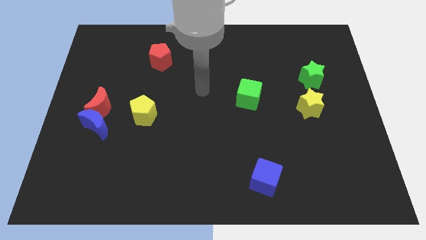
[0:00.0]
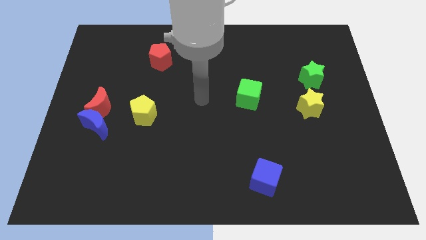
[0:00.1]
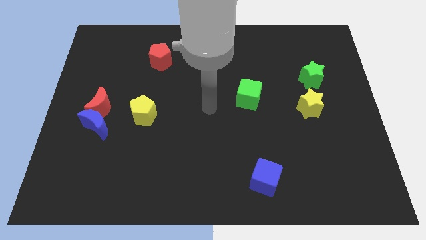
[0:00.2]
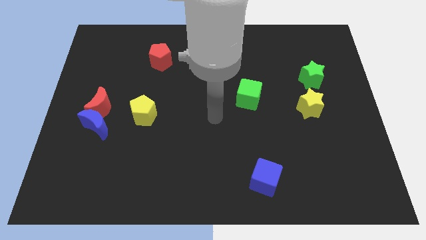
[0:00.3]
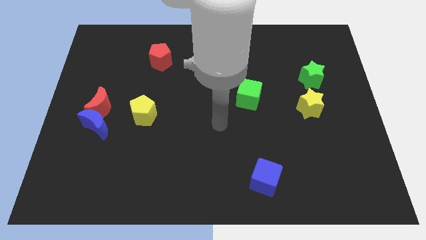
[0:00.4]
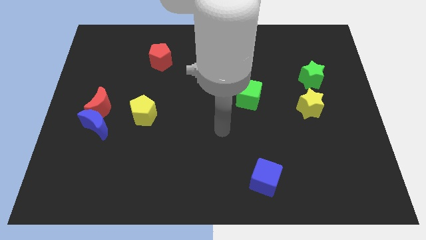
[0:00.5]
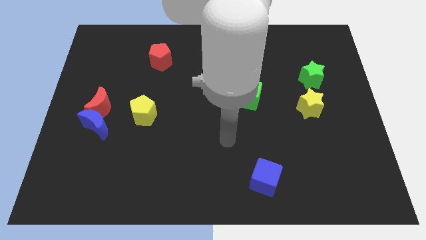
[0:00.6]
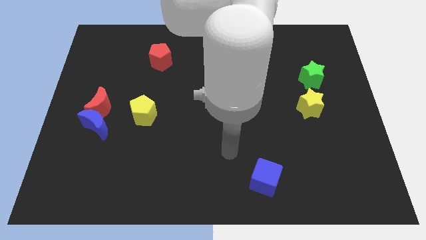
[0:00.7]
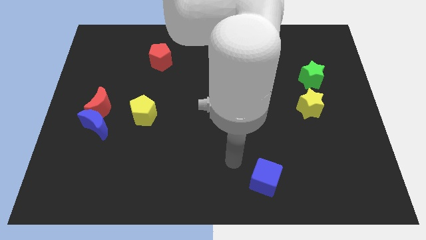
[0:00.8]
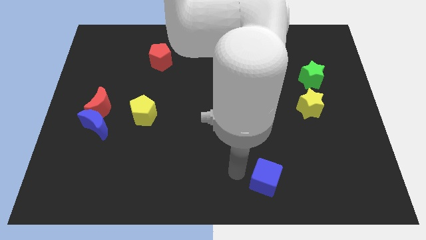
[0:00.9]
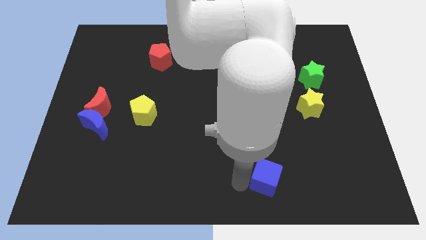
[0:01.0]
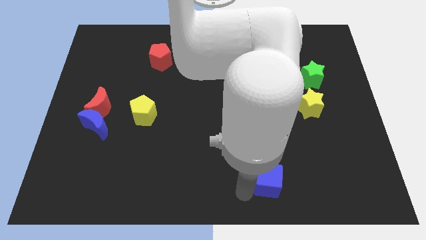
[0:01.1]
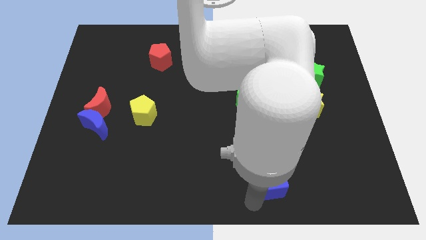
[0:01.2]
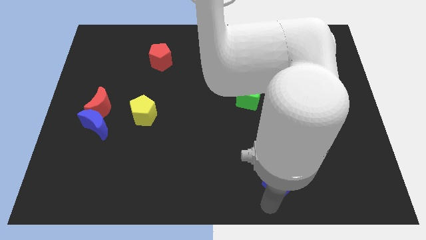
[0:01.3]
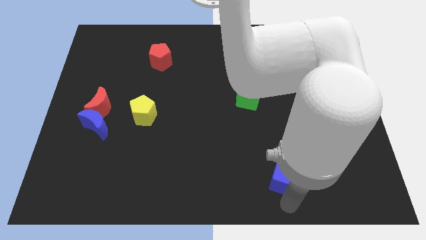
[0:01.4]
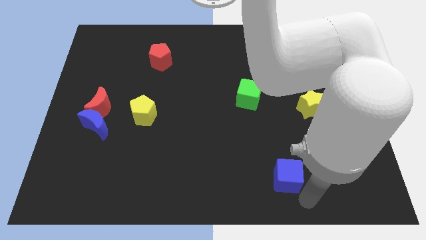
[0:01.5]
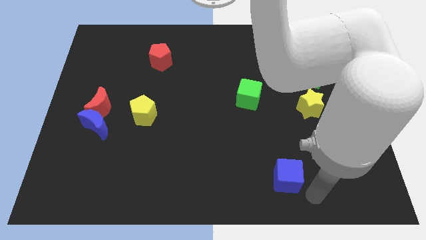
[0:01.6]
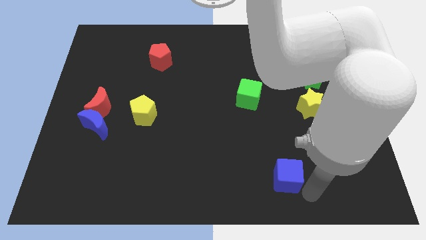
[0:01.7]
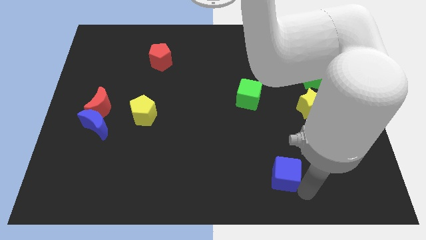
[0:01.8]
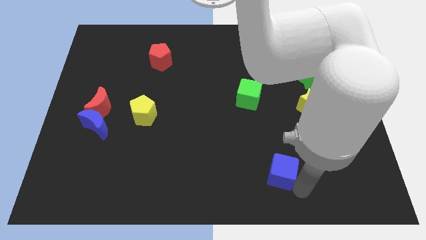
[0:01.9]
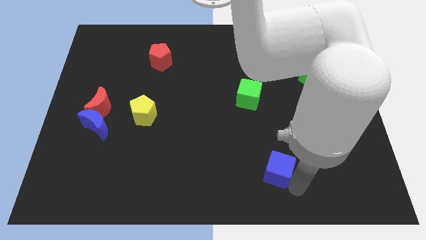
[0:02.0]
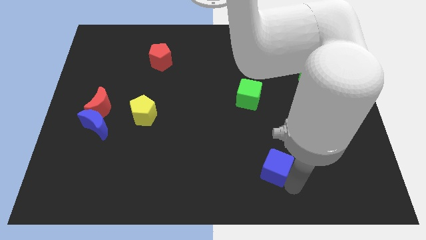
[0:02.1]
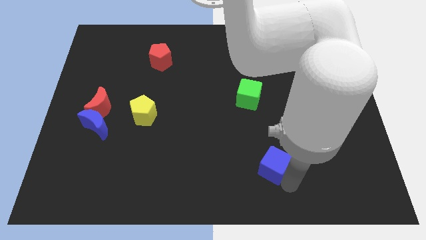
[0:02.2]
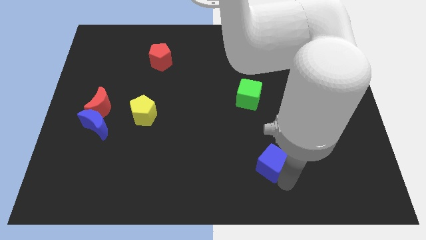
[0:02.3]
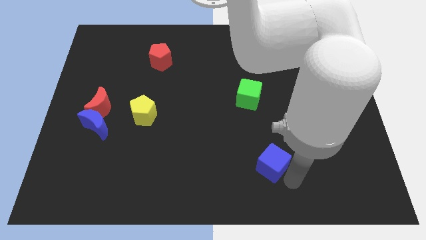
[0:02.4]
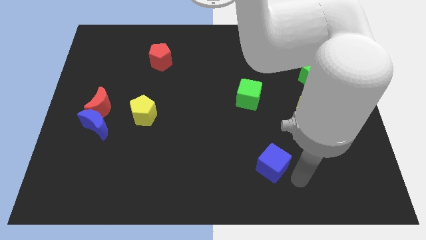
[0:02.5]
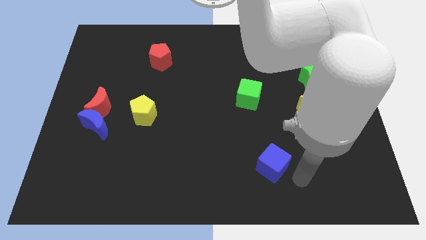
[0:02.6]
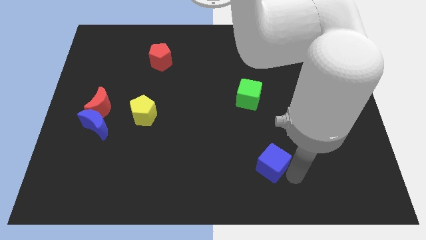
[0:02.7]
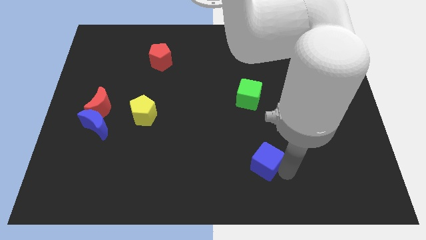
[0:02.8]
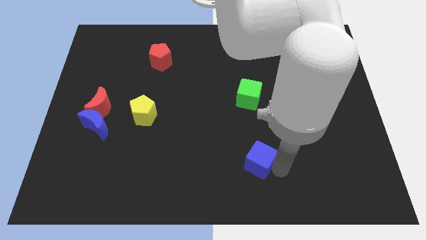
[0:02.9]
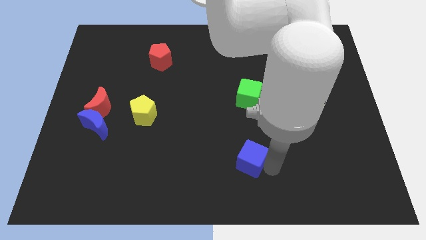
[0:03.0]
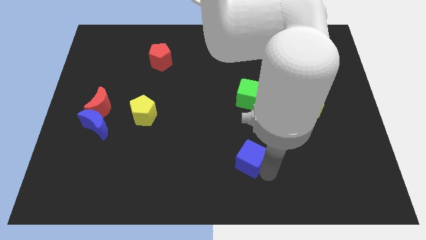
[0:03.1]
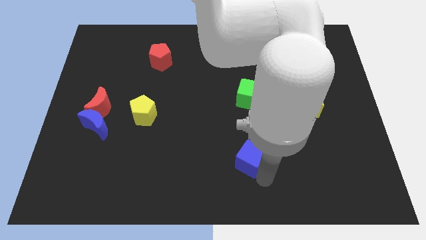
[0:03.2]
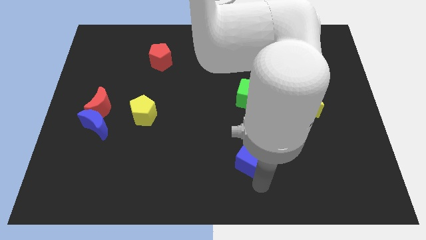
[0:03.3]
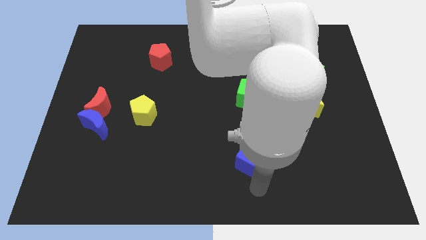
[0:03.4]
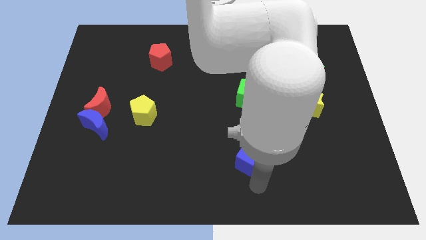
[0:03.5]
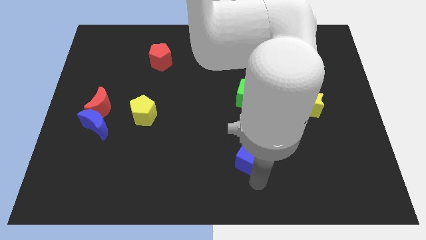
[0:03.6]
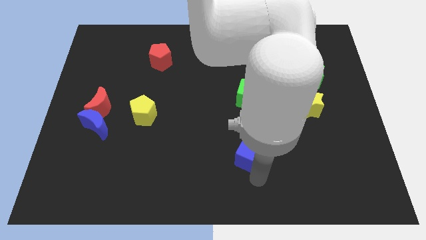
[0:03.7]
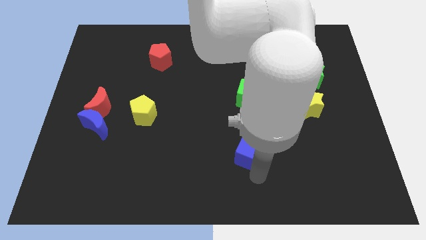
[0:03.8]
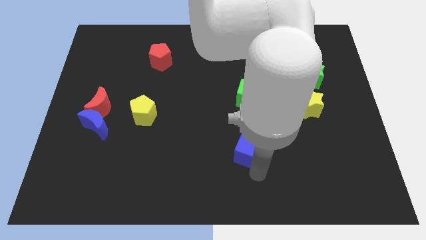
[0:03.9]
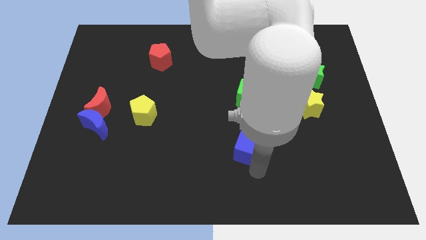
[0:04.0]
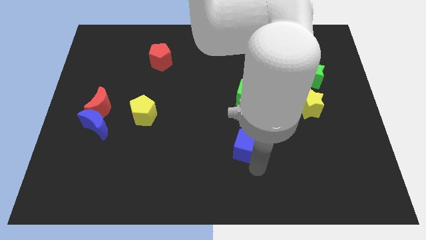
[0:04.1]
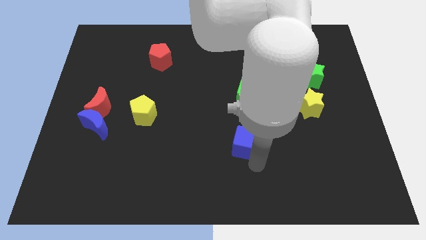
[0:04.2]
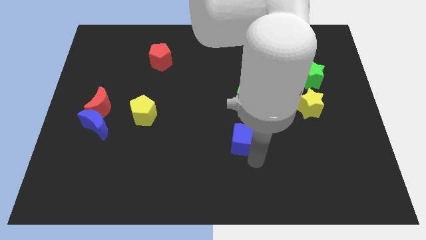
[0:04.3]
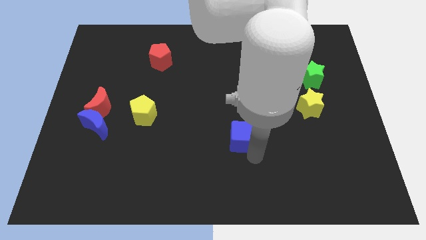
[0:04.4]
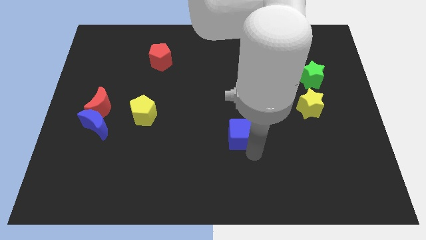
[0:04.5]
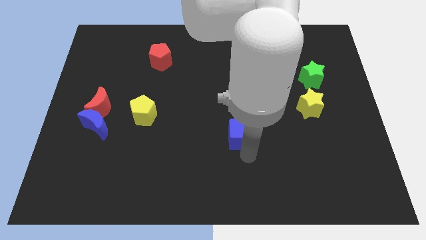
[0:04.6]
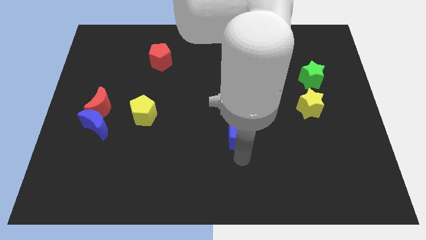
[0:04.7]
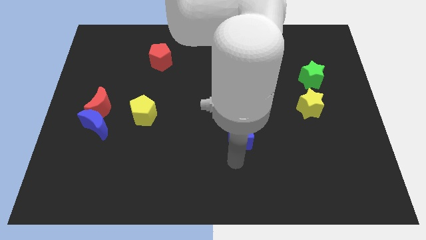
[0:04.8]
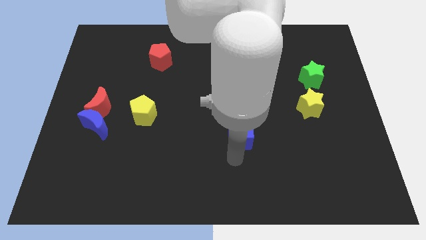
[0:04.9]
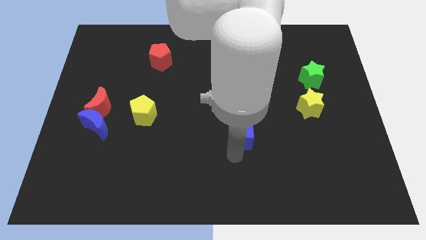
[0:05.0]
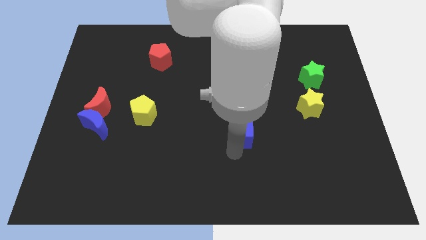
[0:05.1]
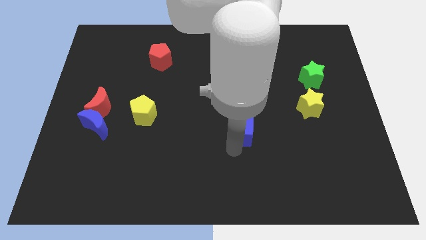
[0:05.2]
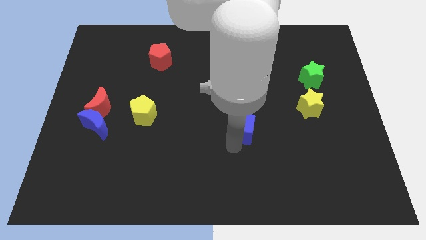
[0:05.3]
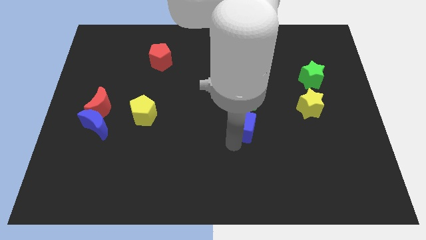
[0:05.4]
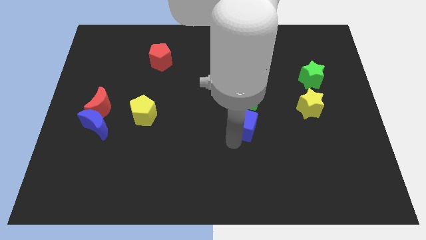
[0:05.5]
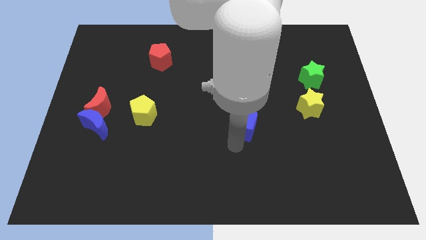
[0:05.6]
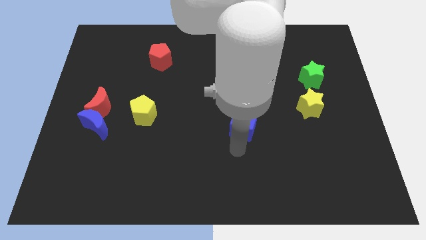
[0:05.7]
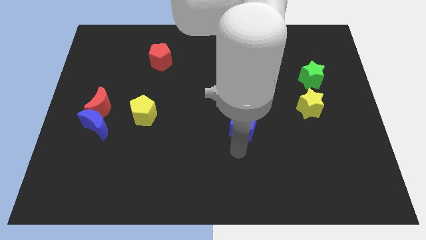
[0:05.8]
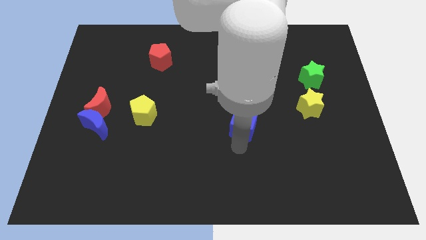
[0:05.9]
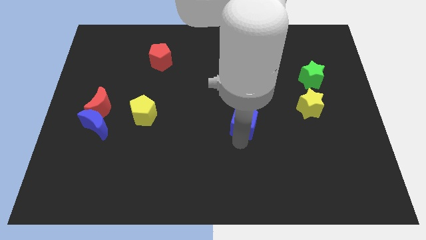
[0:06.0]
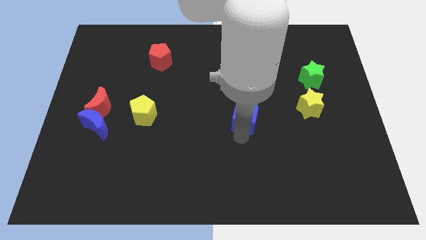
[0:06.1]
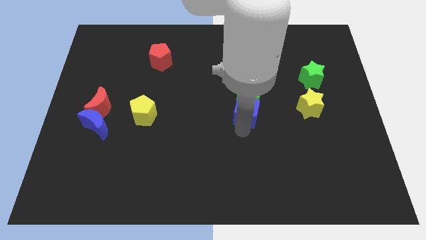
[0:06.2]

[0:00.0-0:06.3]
slide the blue cube to the green cube
